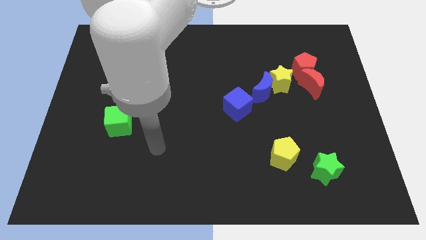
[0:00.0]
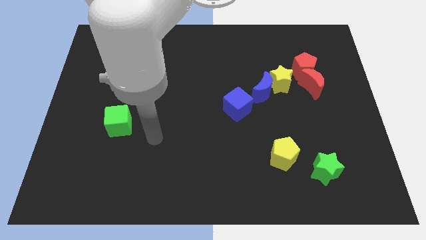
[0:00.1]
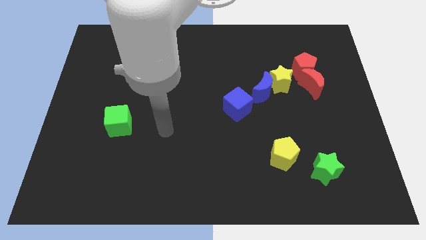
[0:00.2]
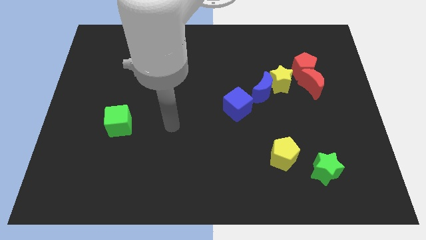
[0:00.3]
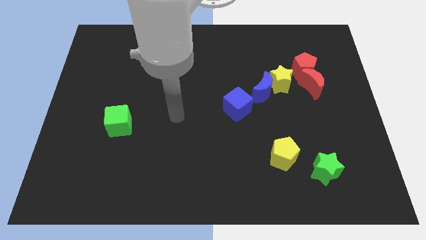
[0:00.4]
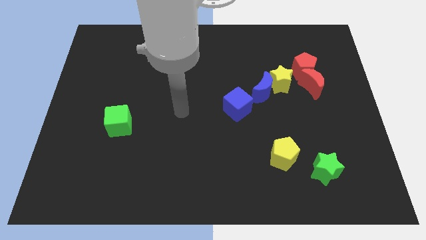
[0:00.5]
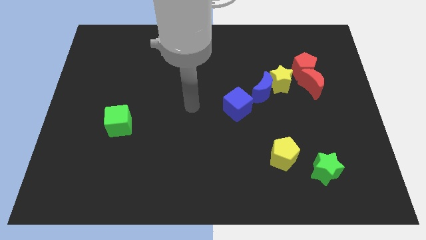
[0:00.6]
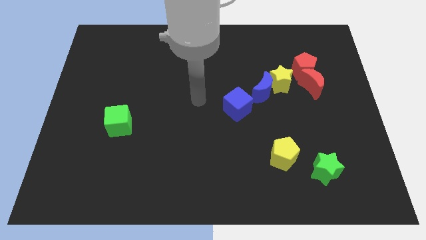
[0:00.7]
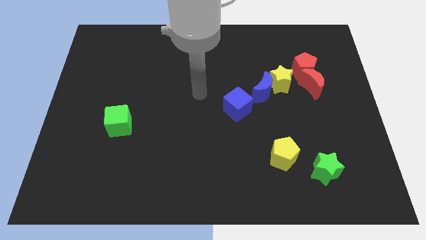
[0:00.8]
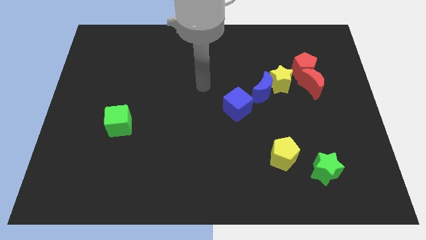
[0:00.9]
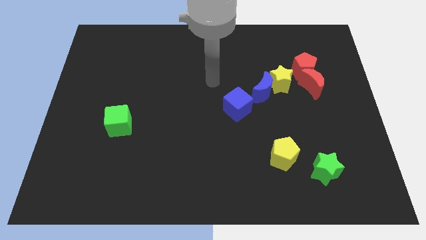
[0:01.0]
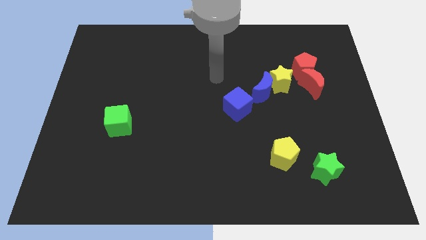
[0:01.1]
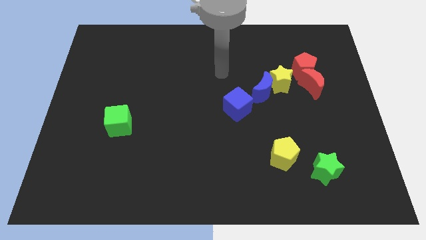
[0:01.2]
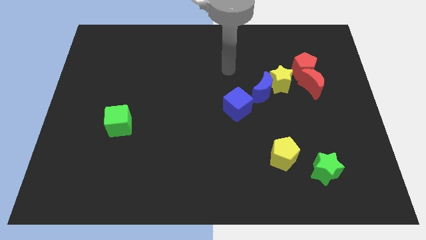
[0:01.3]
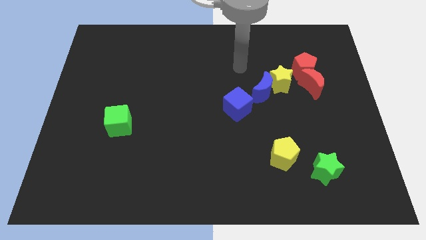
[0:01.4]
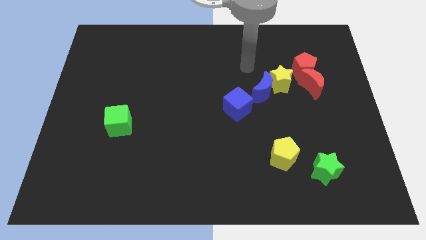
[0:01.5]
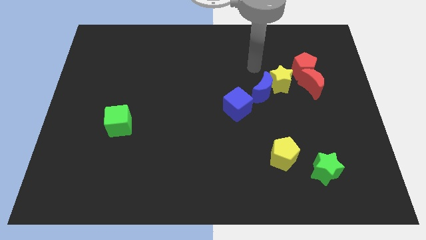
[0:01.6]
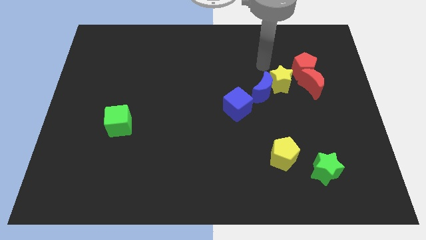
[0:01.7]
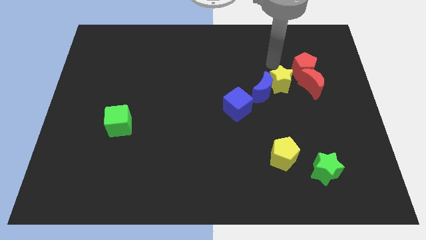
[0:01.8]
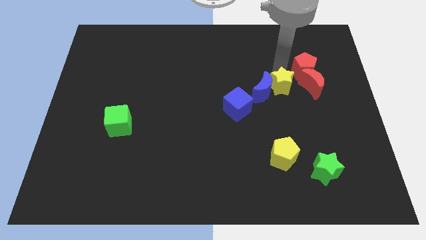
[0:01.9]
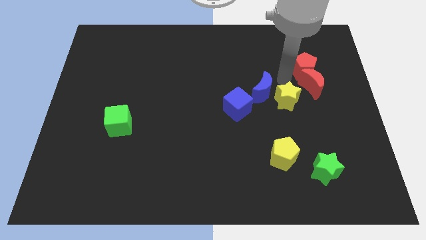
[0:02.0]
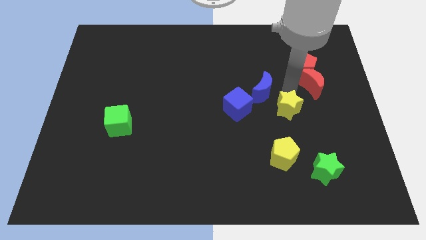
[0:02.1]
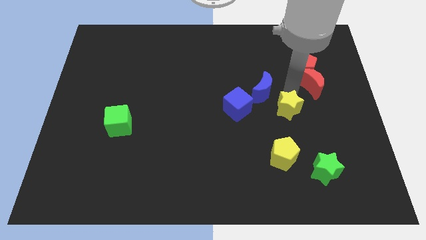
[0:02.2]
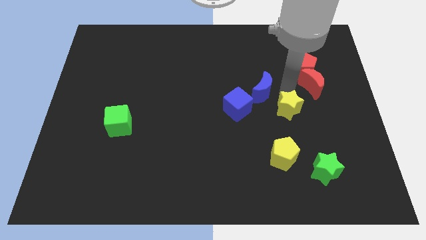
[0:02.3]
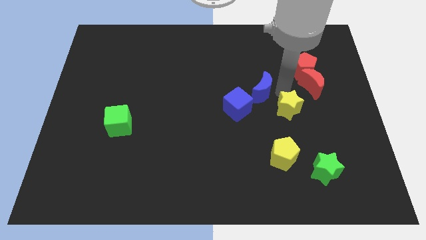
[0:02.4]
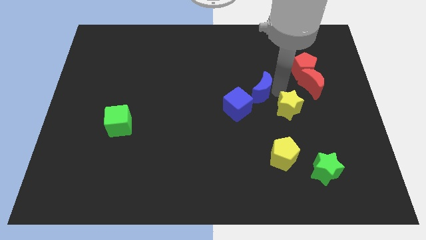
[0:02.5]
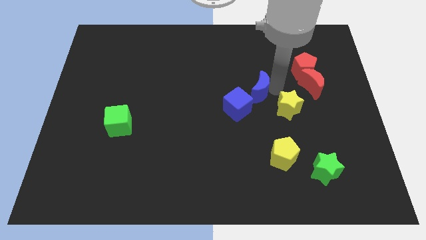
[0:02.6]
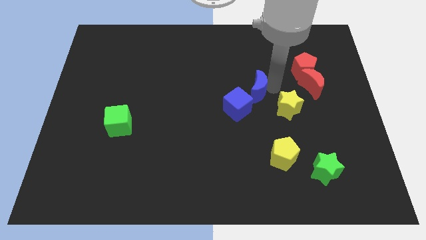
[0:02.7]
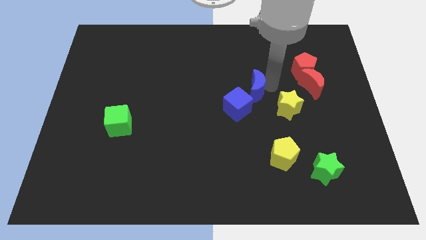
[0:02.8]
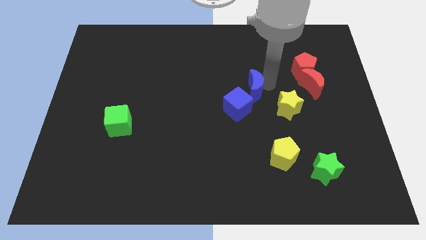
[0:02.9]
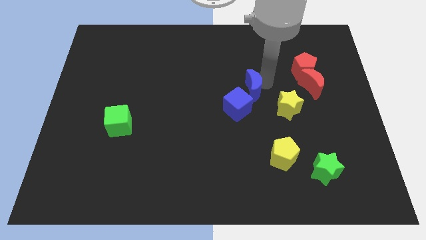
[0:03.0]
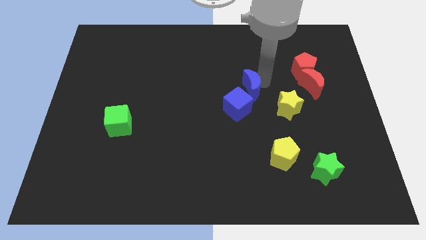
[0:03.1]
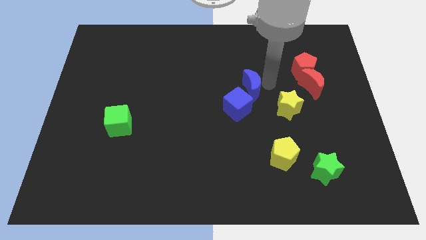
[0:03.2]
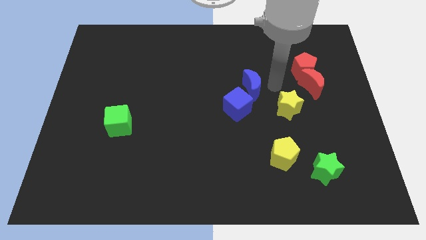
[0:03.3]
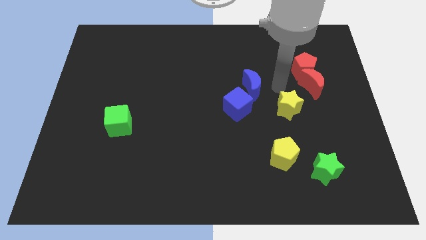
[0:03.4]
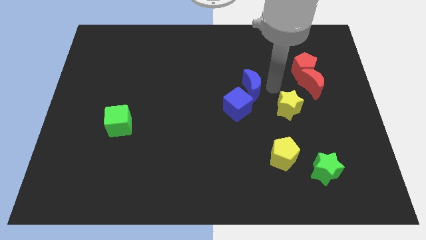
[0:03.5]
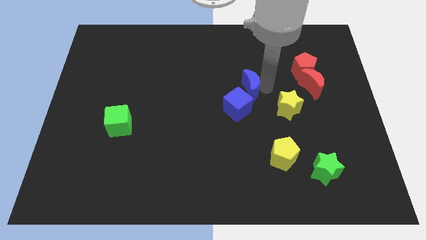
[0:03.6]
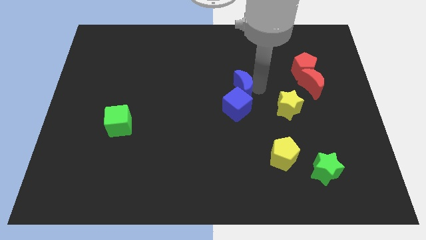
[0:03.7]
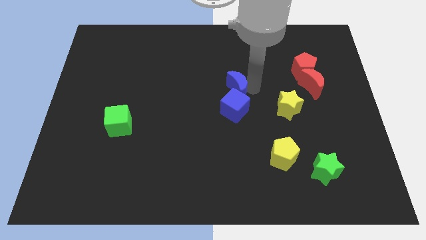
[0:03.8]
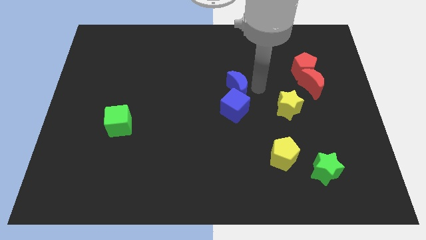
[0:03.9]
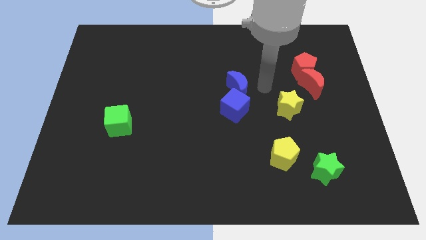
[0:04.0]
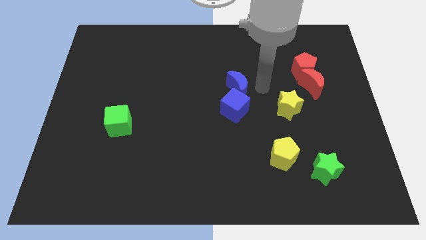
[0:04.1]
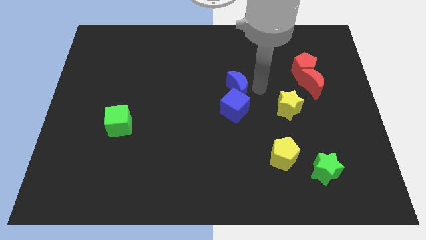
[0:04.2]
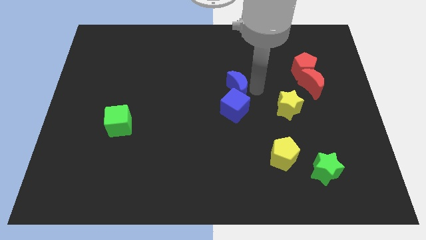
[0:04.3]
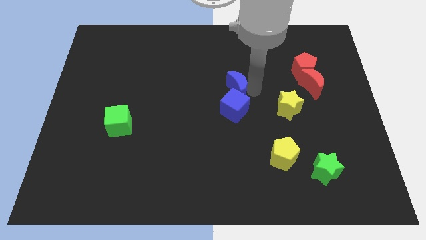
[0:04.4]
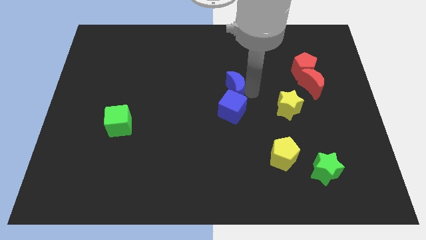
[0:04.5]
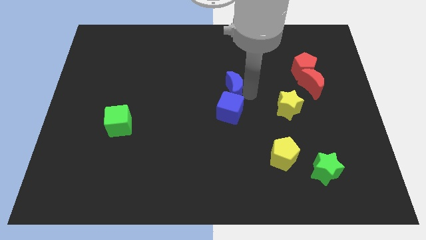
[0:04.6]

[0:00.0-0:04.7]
slide the blue moon to the left a bit

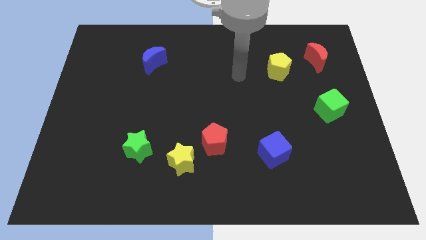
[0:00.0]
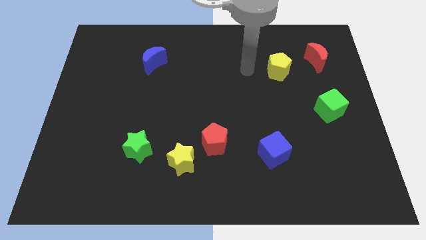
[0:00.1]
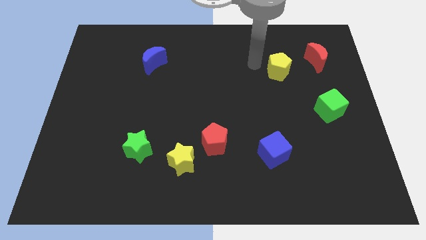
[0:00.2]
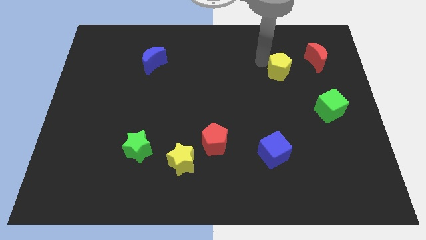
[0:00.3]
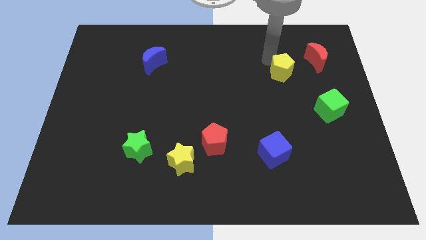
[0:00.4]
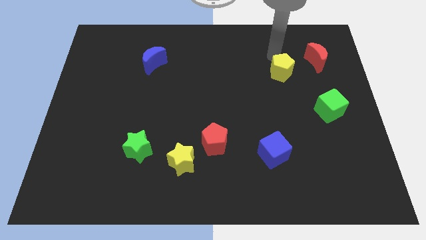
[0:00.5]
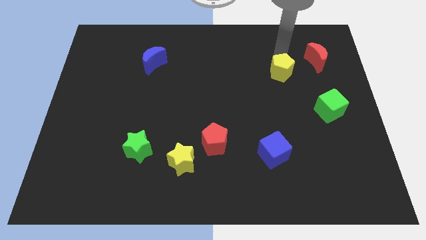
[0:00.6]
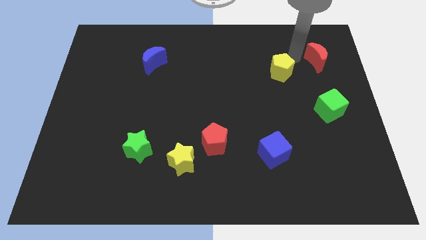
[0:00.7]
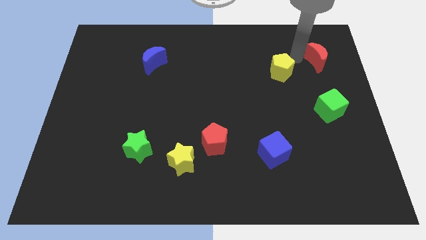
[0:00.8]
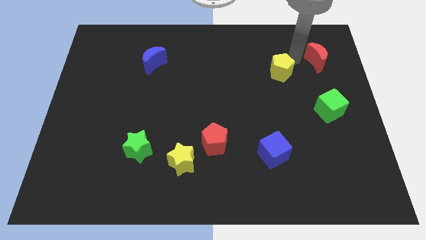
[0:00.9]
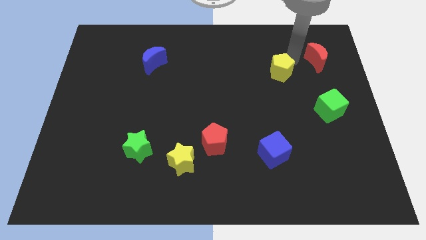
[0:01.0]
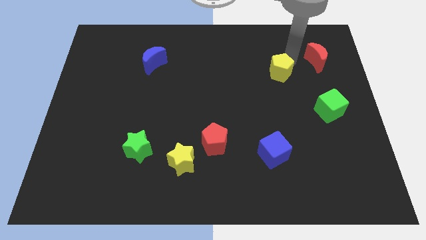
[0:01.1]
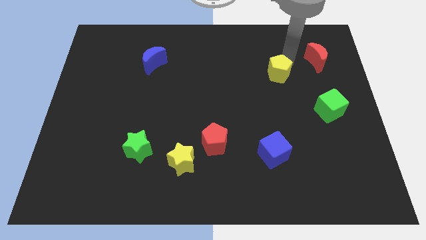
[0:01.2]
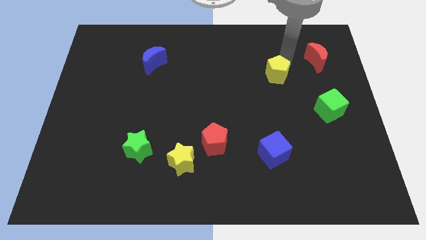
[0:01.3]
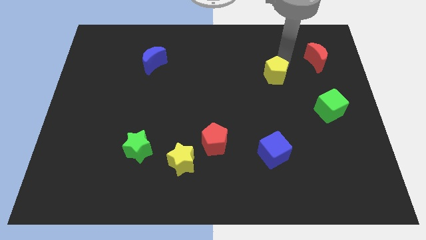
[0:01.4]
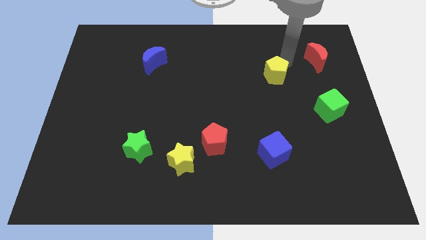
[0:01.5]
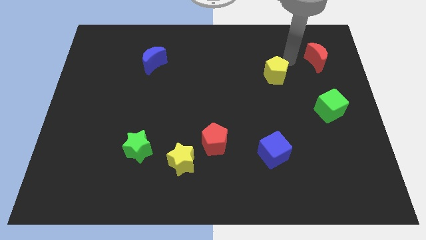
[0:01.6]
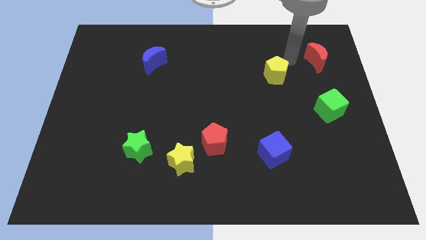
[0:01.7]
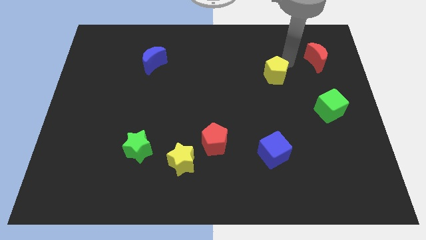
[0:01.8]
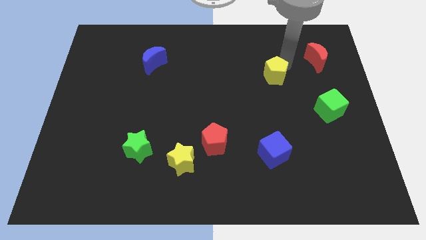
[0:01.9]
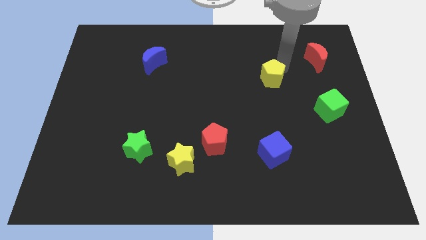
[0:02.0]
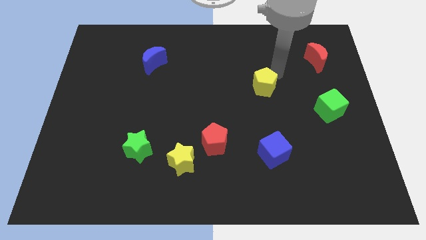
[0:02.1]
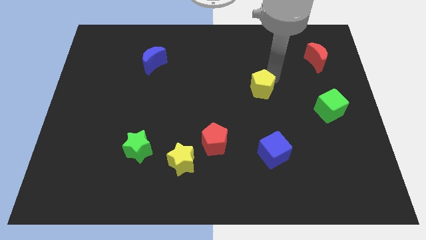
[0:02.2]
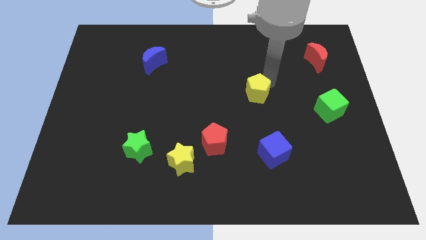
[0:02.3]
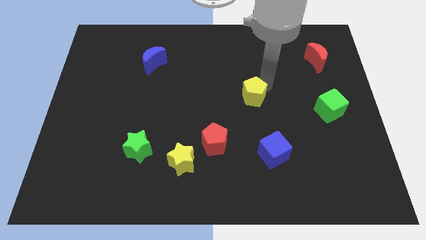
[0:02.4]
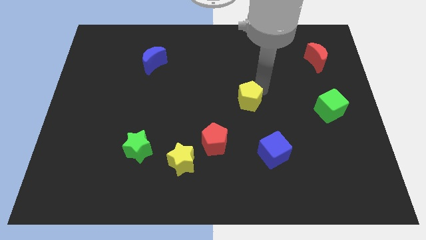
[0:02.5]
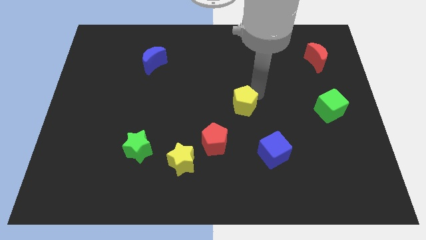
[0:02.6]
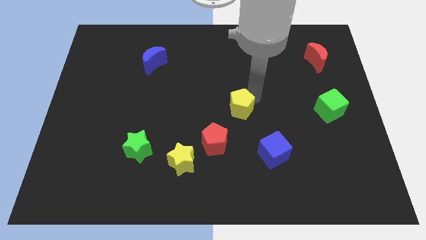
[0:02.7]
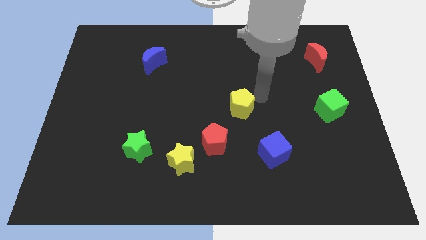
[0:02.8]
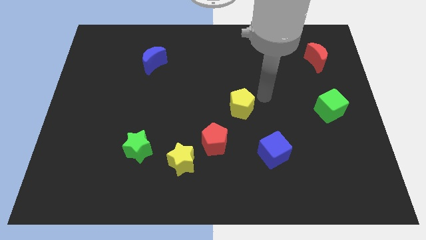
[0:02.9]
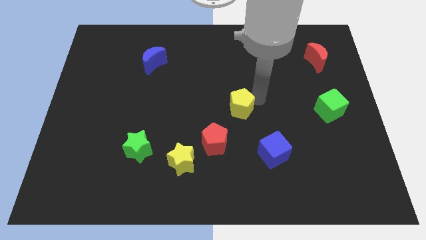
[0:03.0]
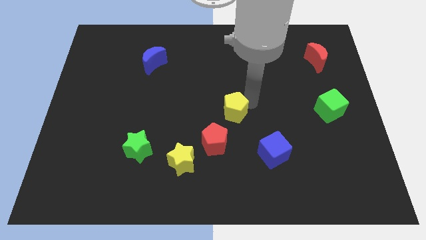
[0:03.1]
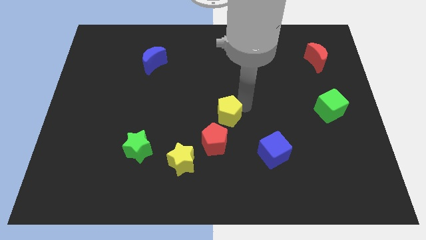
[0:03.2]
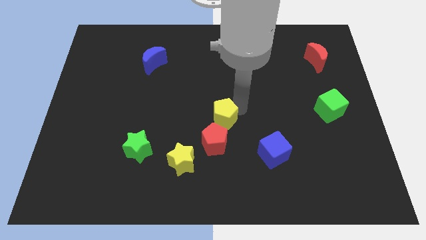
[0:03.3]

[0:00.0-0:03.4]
push the yellow pentagon downwards and to the left

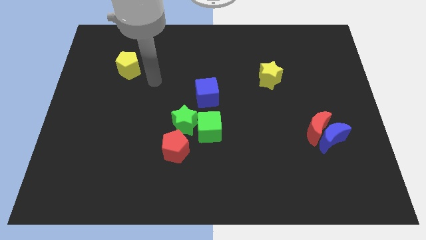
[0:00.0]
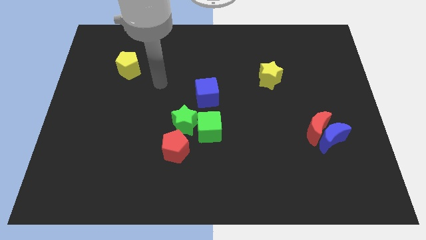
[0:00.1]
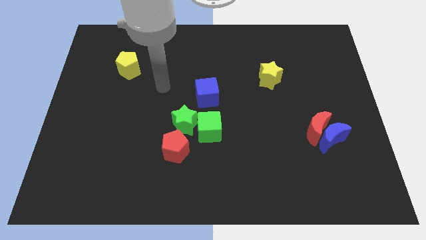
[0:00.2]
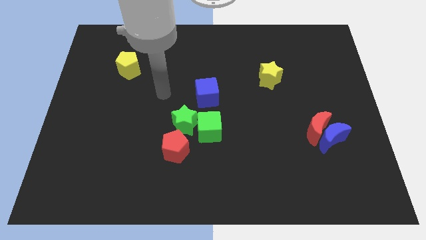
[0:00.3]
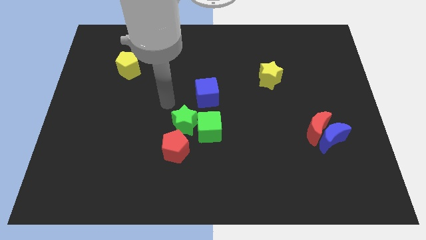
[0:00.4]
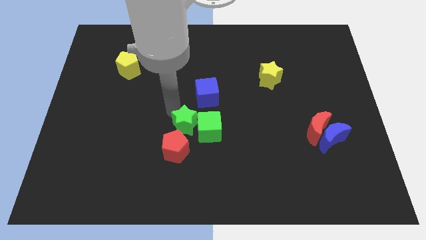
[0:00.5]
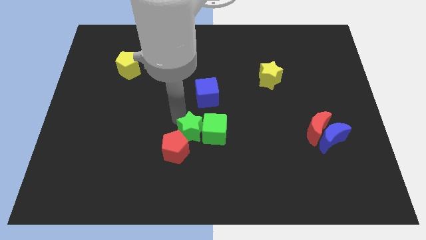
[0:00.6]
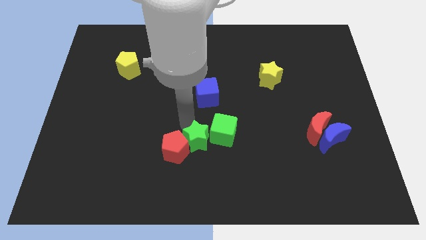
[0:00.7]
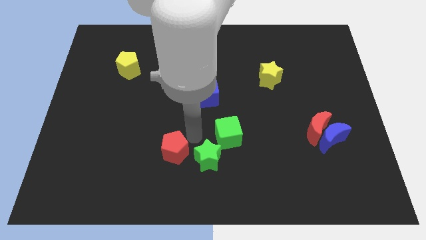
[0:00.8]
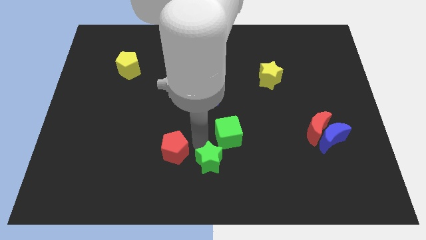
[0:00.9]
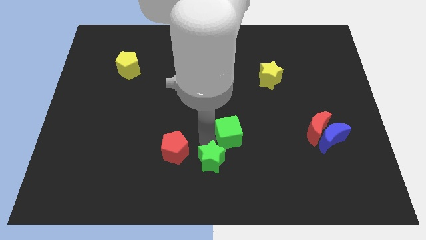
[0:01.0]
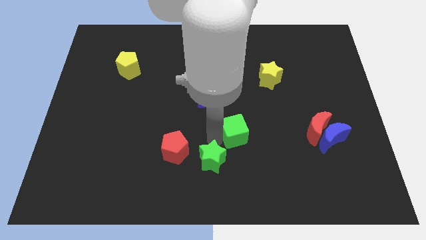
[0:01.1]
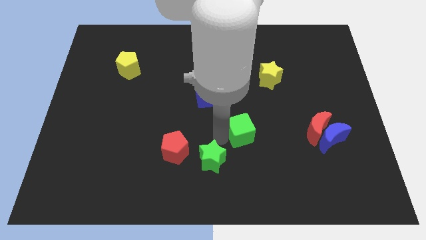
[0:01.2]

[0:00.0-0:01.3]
move the green cube a little right
